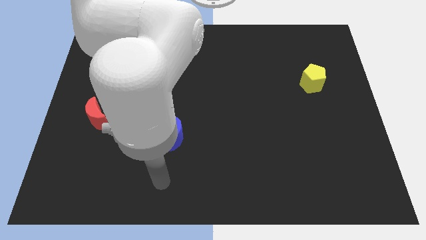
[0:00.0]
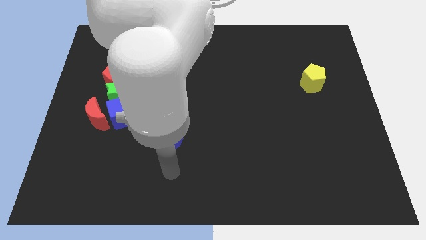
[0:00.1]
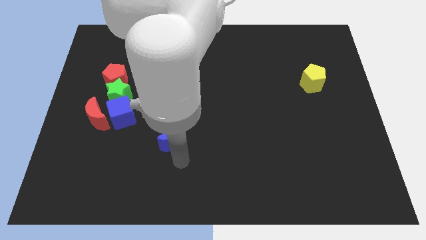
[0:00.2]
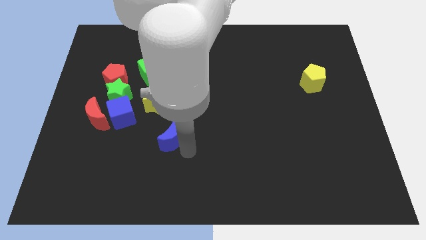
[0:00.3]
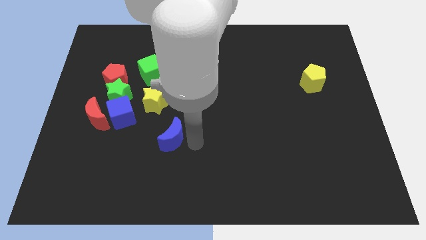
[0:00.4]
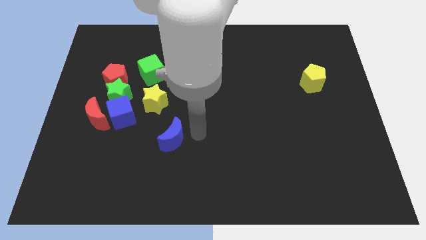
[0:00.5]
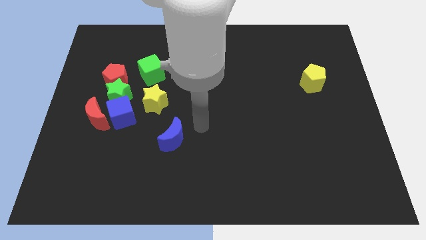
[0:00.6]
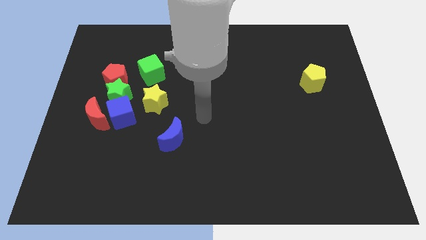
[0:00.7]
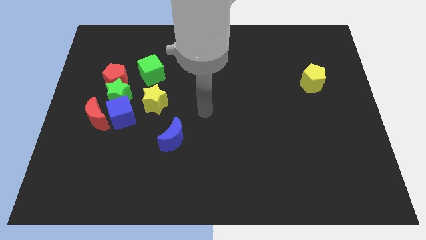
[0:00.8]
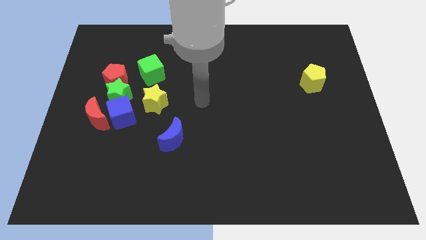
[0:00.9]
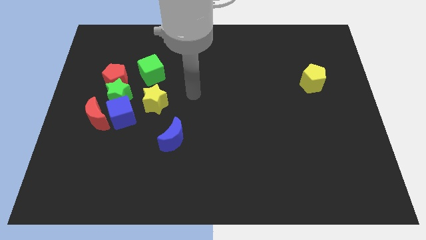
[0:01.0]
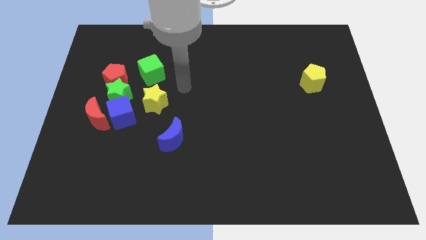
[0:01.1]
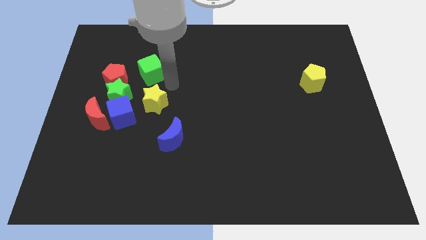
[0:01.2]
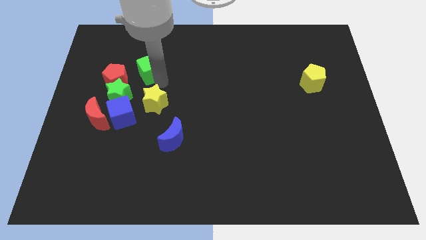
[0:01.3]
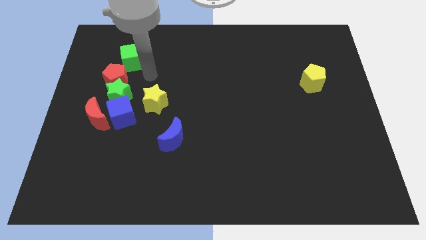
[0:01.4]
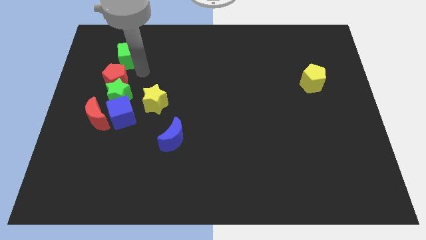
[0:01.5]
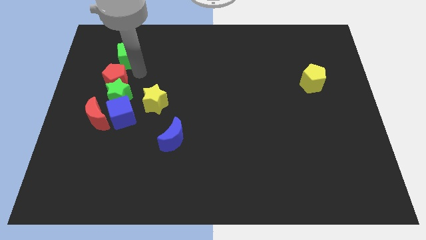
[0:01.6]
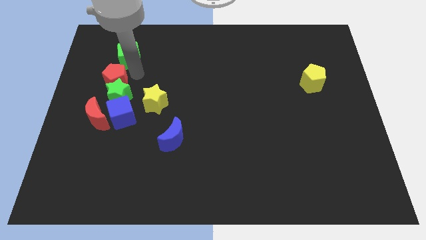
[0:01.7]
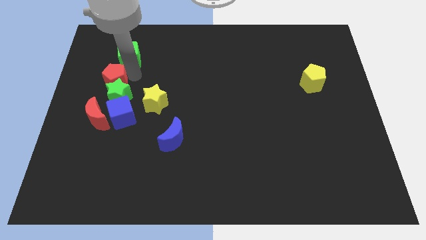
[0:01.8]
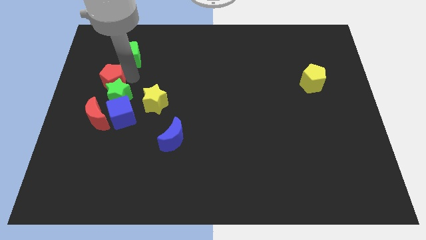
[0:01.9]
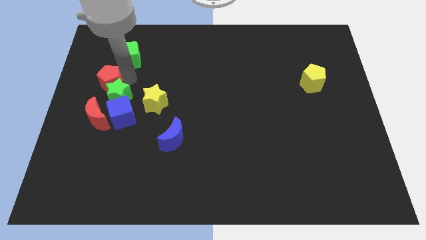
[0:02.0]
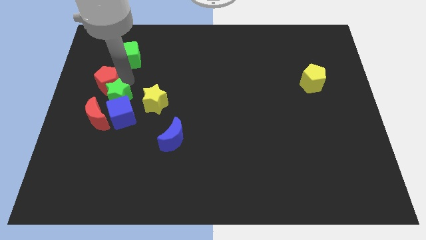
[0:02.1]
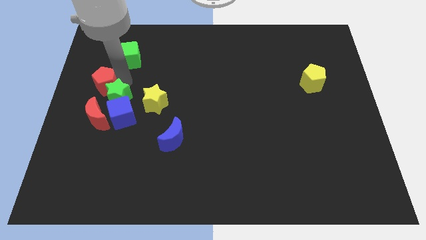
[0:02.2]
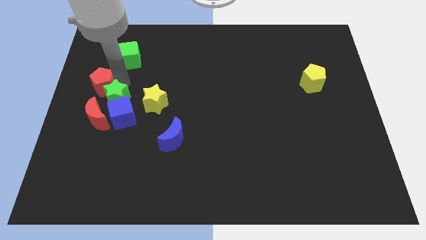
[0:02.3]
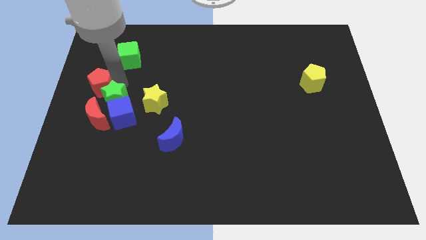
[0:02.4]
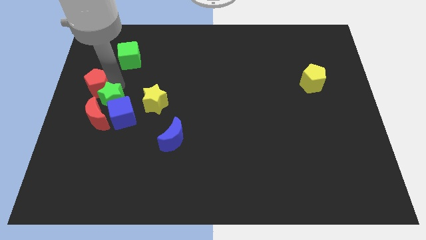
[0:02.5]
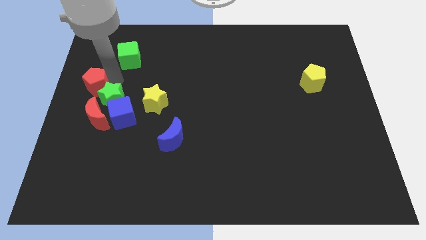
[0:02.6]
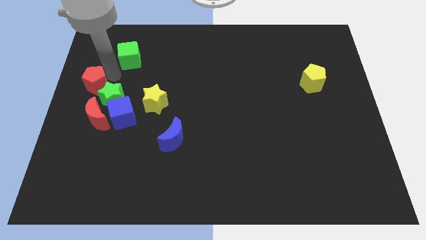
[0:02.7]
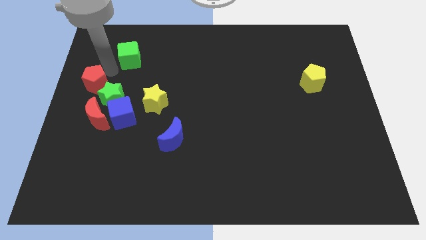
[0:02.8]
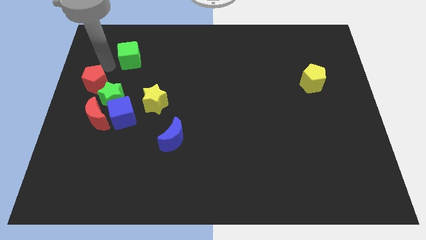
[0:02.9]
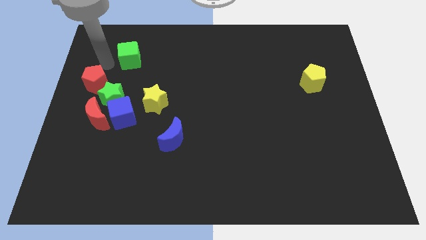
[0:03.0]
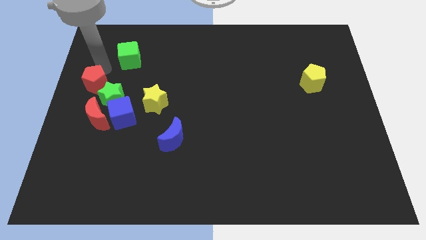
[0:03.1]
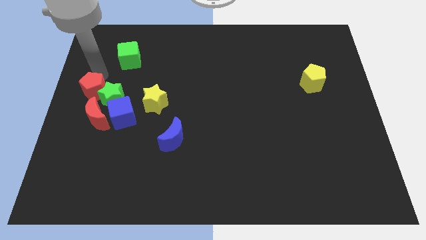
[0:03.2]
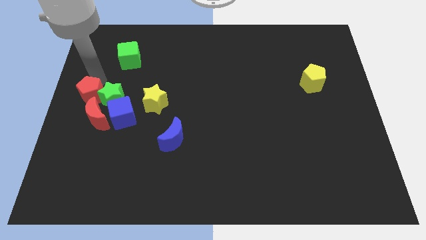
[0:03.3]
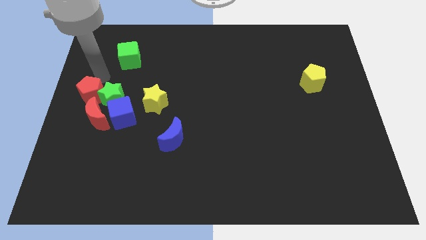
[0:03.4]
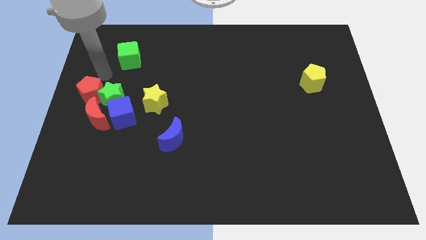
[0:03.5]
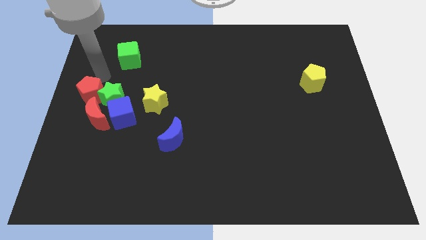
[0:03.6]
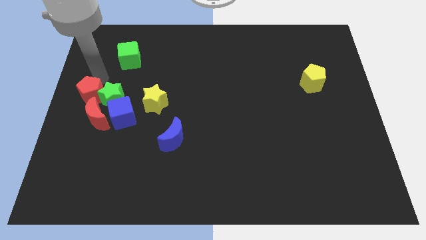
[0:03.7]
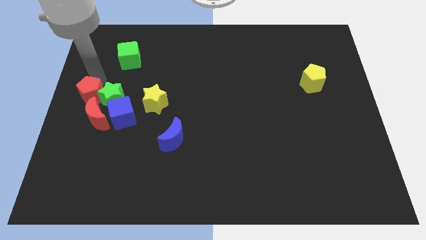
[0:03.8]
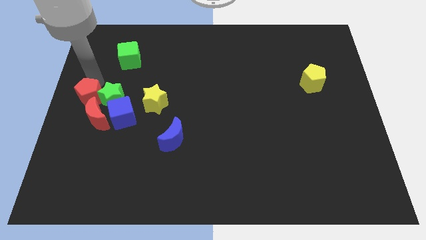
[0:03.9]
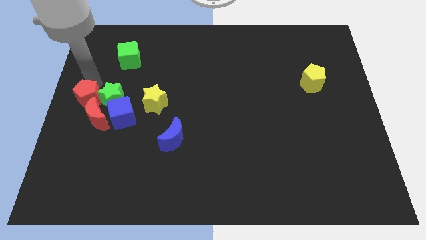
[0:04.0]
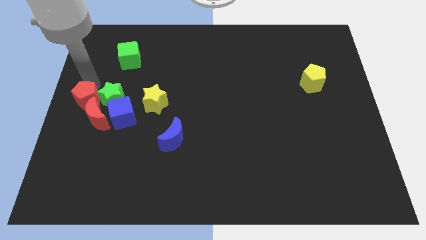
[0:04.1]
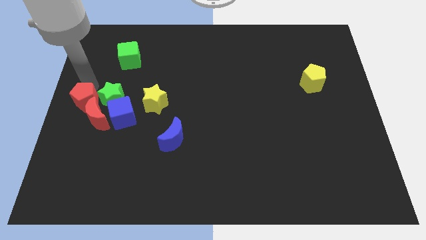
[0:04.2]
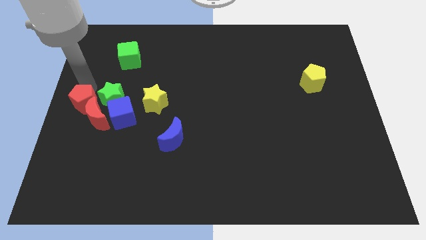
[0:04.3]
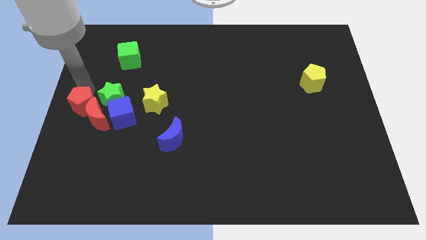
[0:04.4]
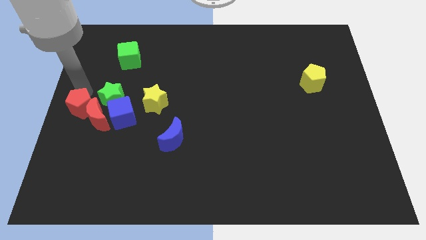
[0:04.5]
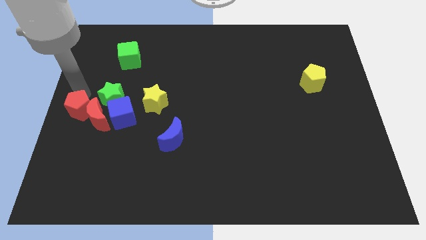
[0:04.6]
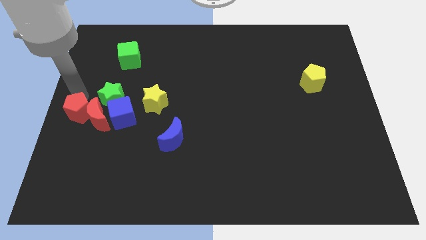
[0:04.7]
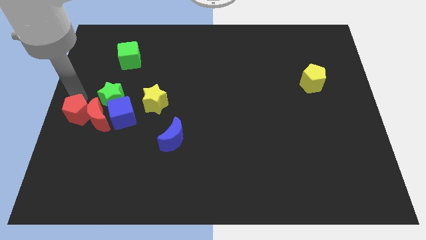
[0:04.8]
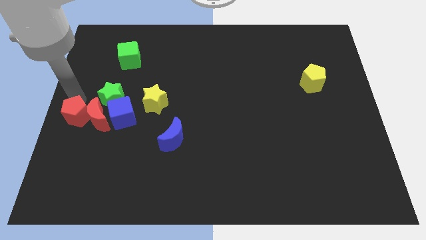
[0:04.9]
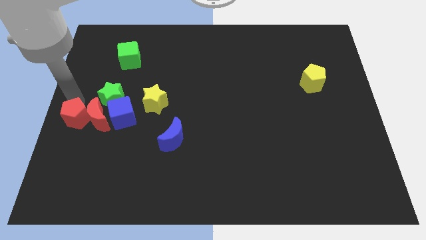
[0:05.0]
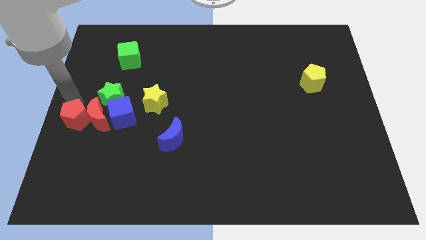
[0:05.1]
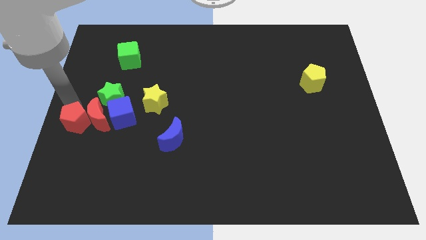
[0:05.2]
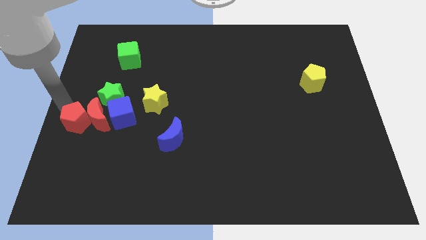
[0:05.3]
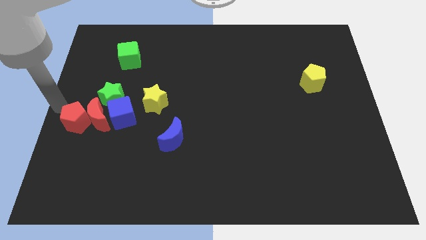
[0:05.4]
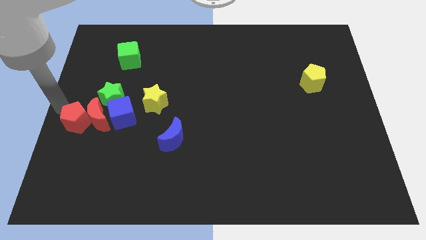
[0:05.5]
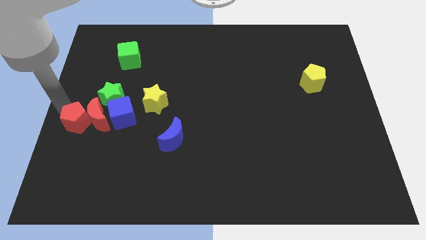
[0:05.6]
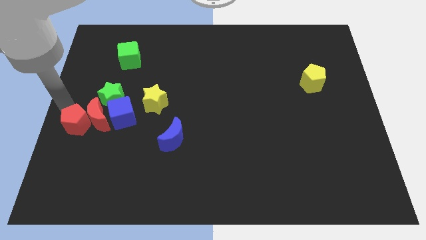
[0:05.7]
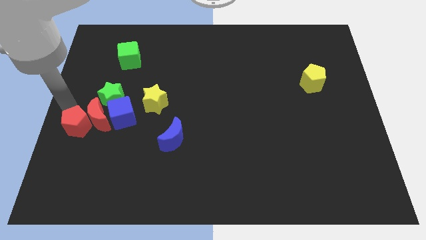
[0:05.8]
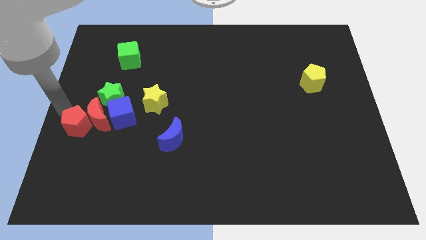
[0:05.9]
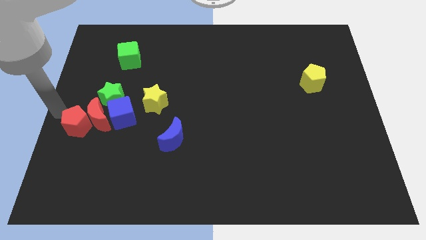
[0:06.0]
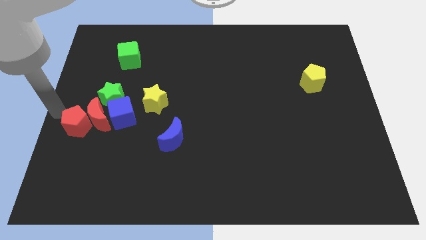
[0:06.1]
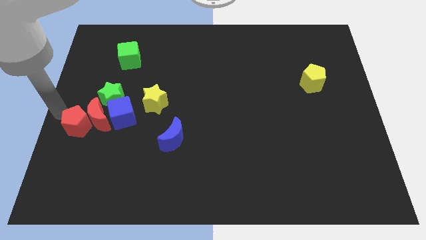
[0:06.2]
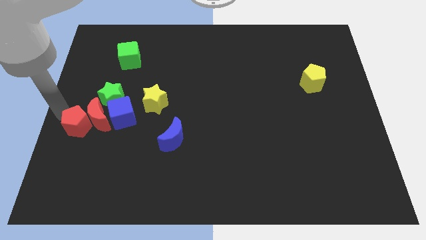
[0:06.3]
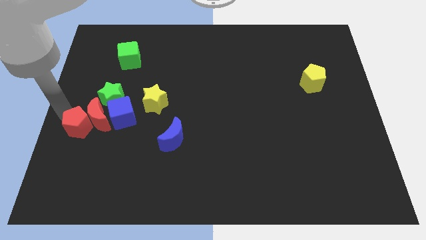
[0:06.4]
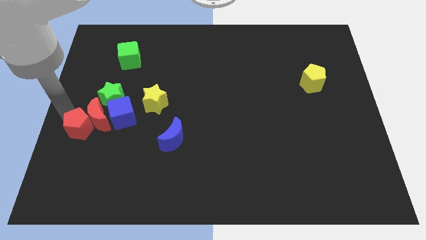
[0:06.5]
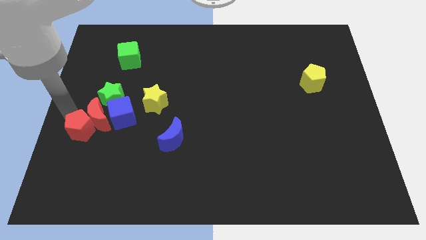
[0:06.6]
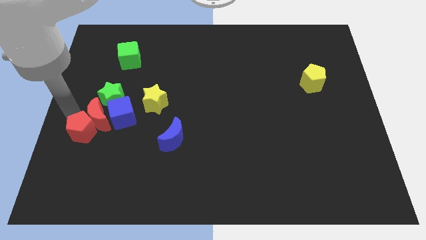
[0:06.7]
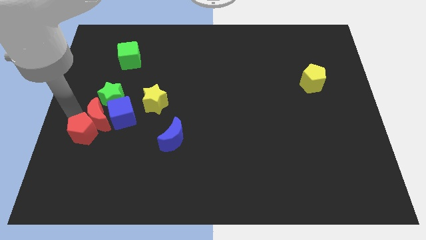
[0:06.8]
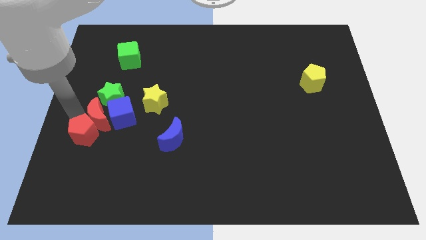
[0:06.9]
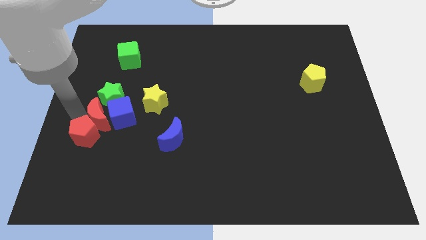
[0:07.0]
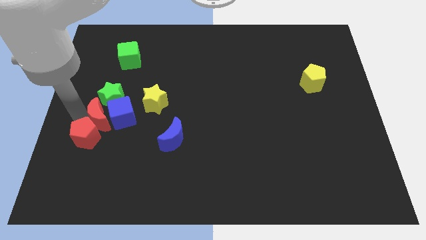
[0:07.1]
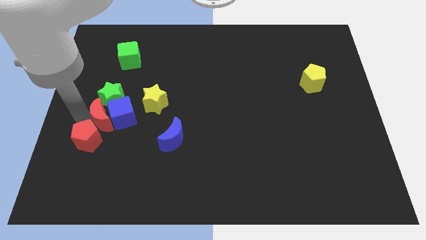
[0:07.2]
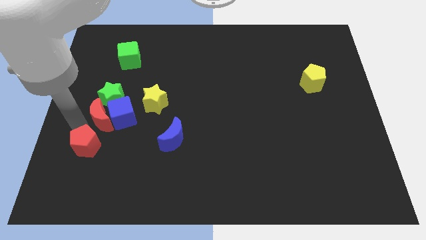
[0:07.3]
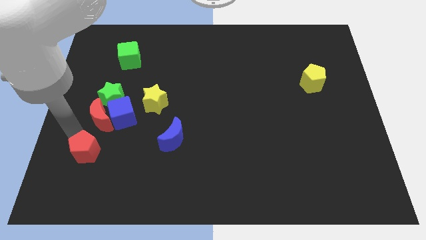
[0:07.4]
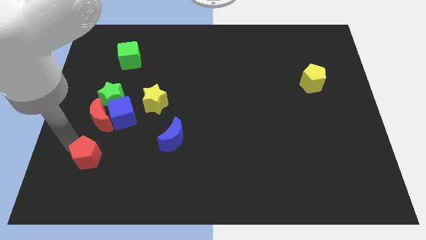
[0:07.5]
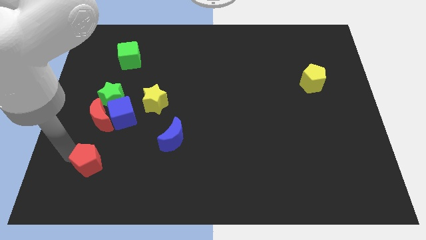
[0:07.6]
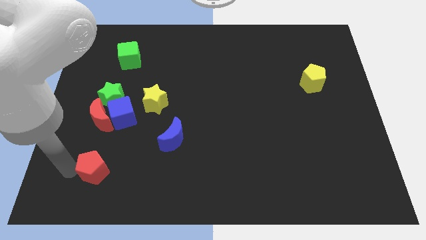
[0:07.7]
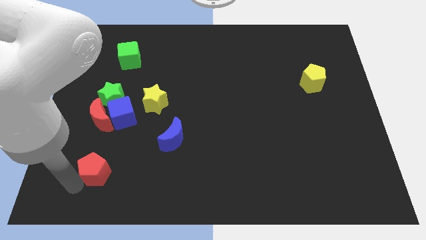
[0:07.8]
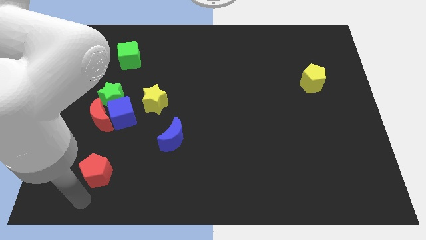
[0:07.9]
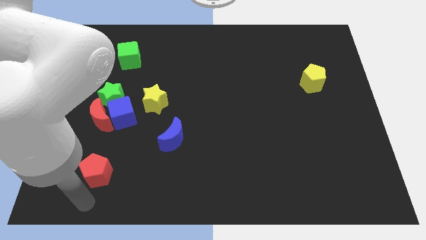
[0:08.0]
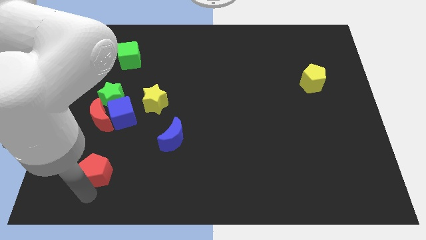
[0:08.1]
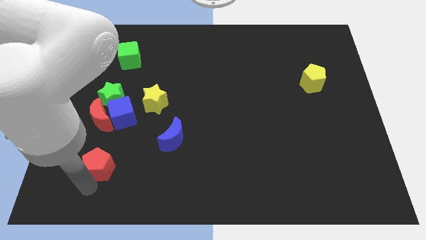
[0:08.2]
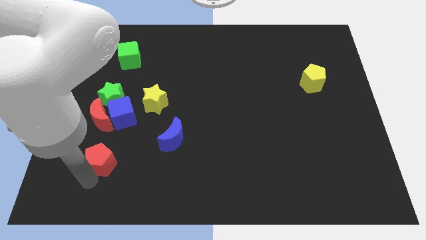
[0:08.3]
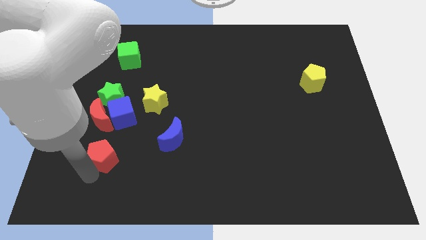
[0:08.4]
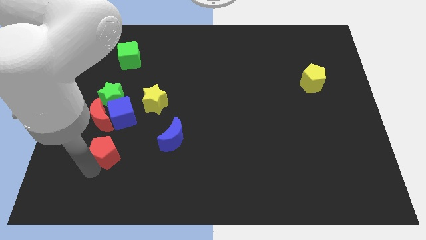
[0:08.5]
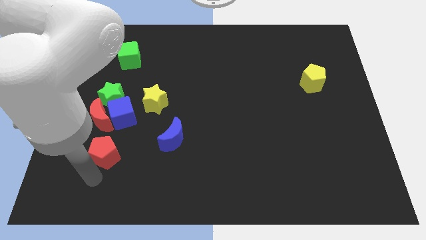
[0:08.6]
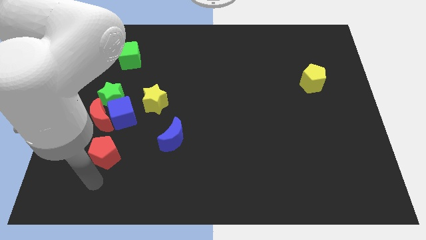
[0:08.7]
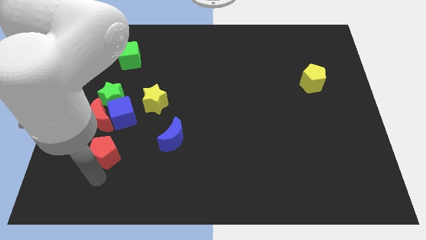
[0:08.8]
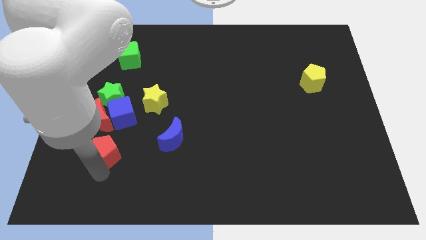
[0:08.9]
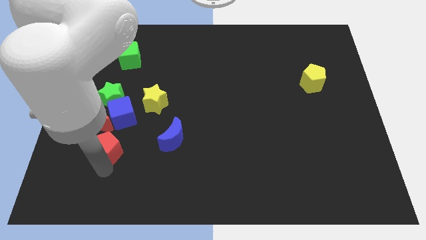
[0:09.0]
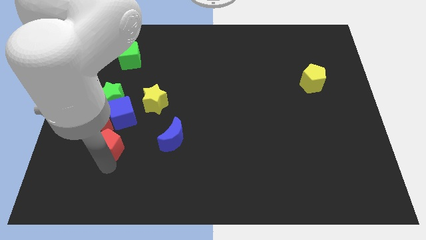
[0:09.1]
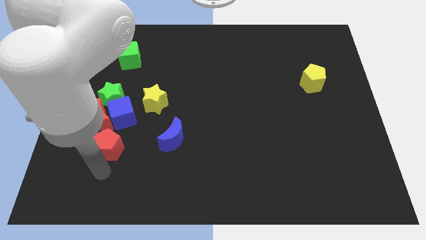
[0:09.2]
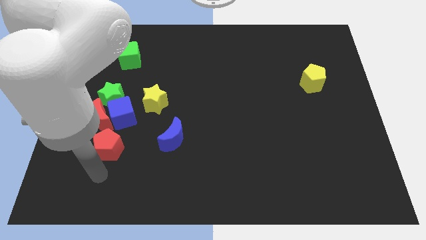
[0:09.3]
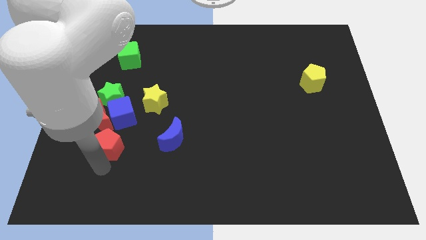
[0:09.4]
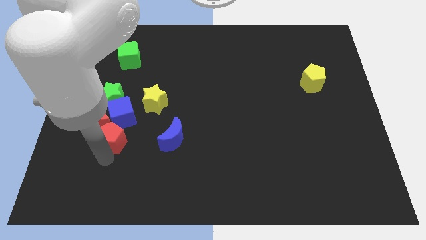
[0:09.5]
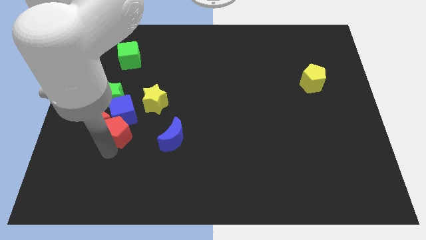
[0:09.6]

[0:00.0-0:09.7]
move the red pentagon close to the blue cube
